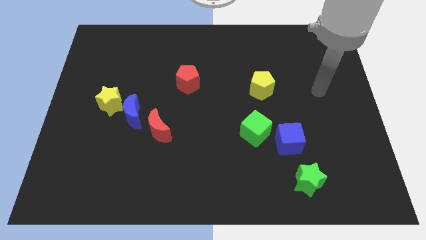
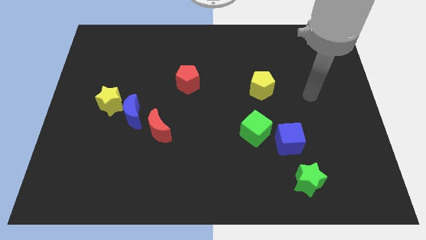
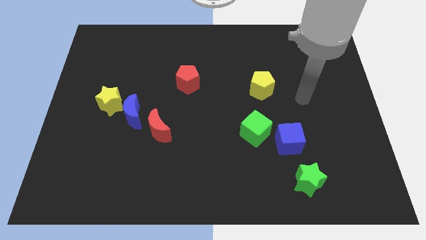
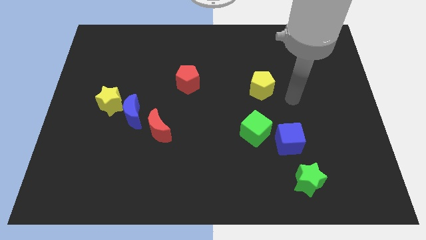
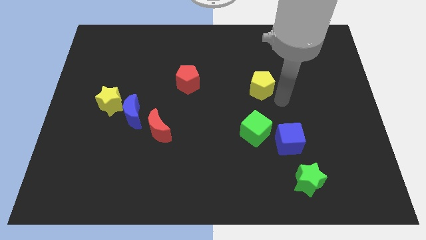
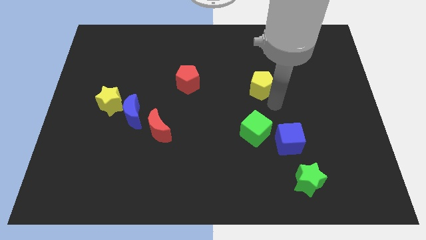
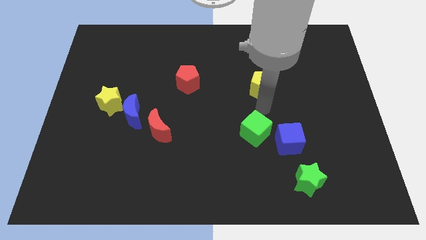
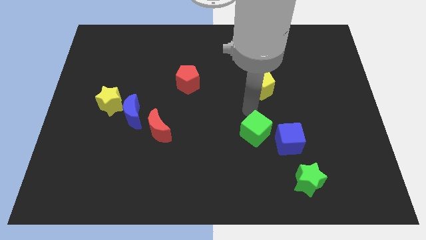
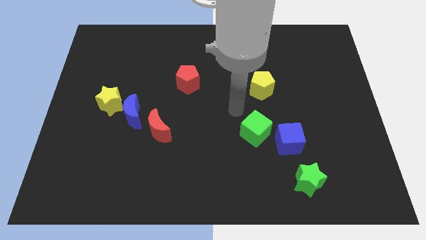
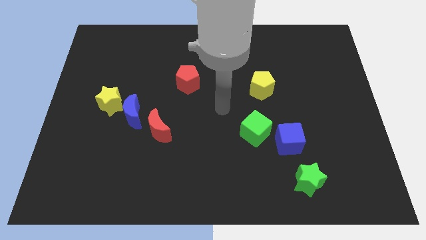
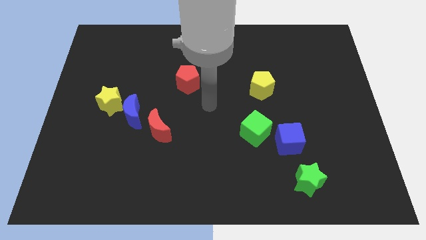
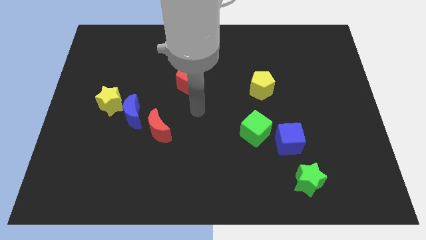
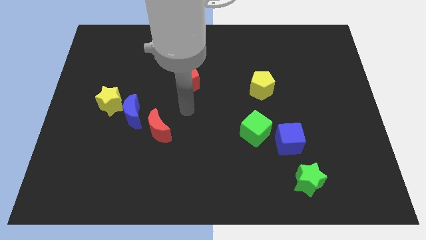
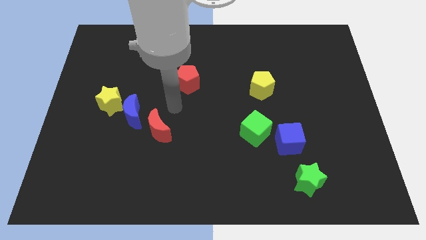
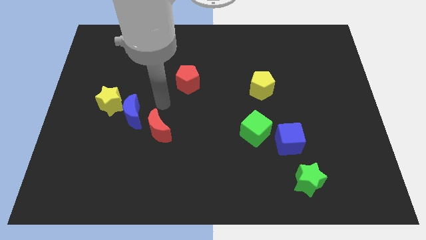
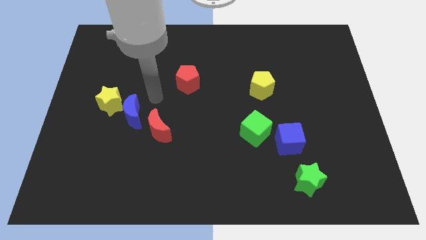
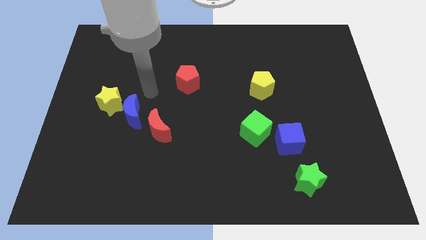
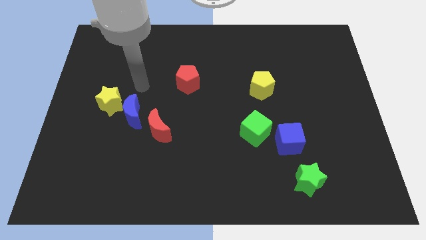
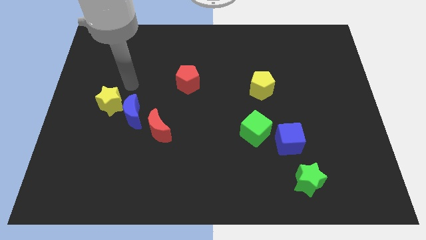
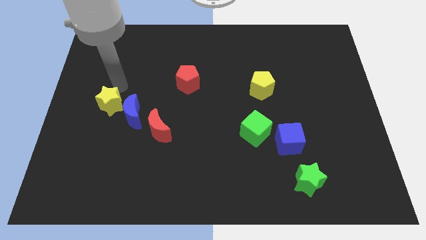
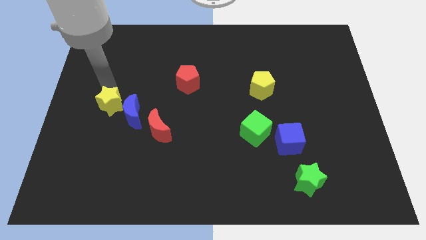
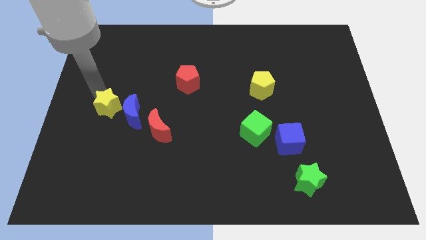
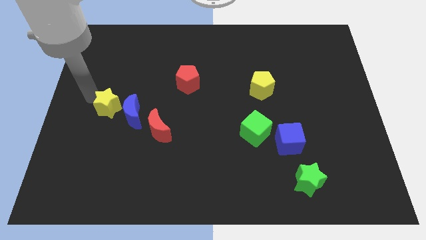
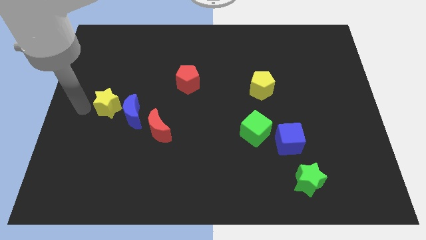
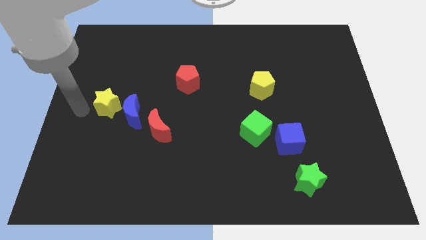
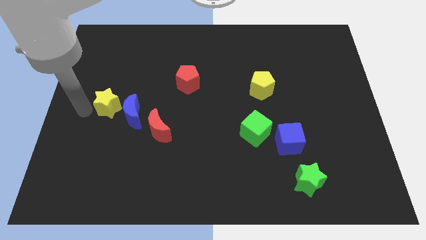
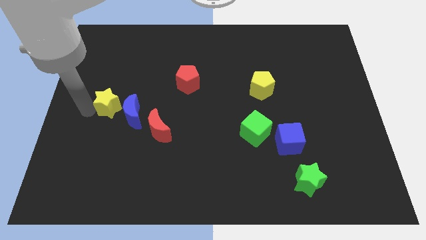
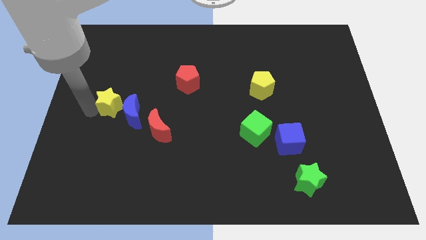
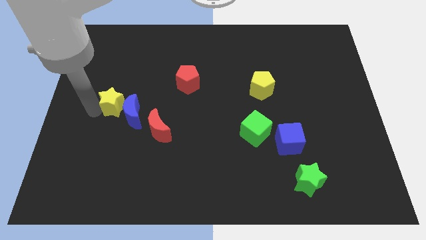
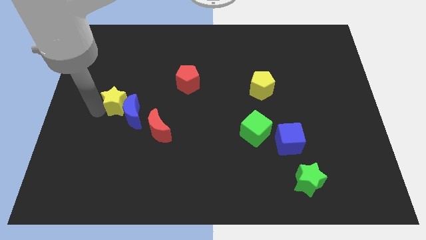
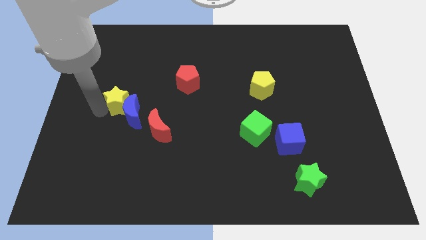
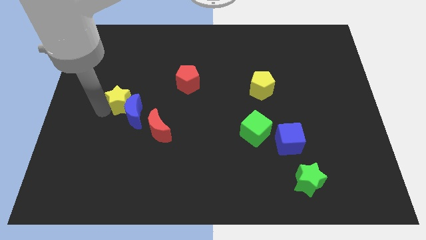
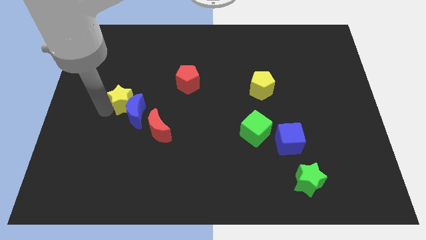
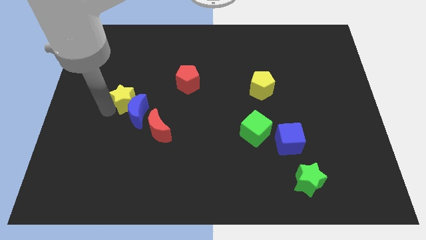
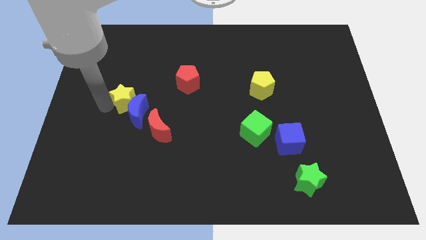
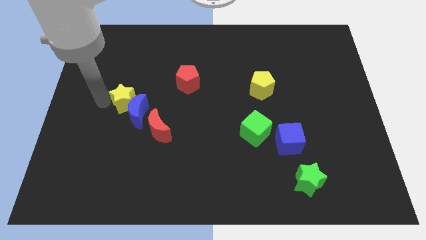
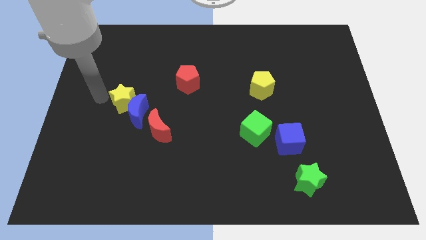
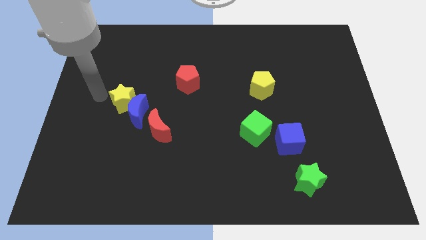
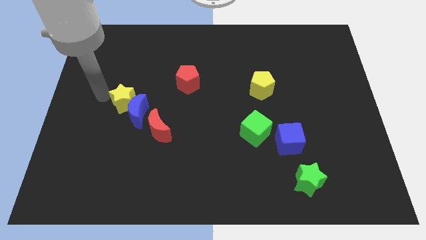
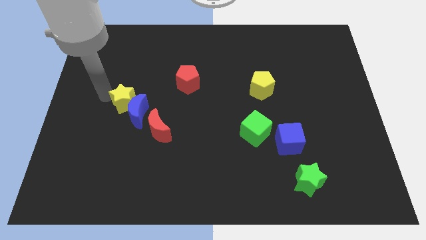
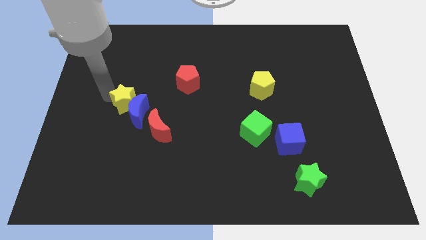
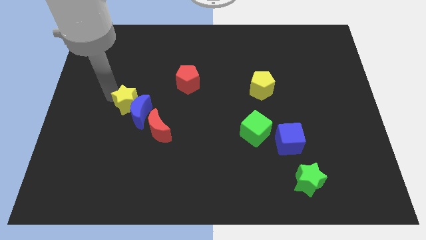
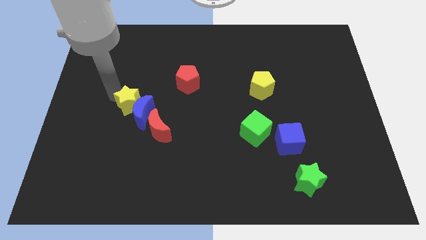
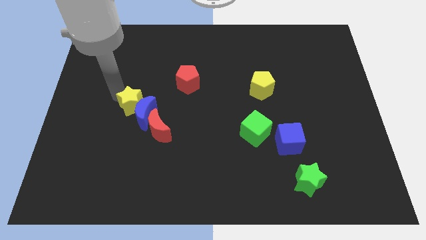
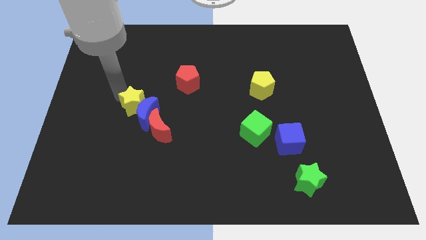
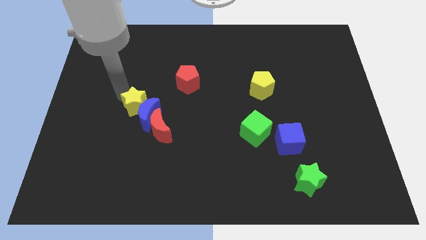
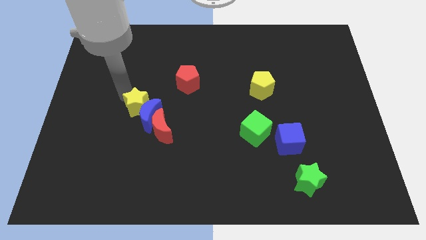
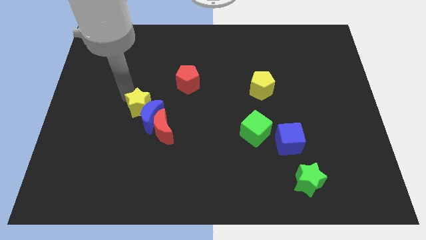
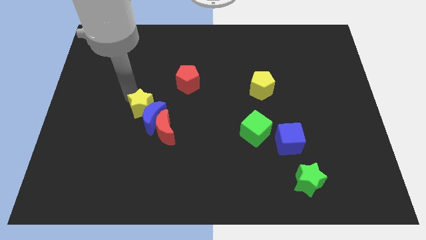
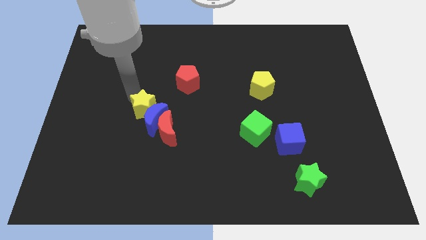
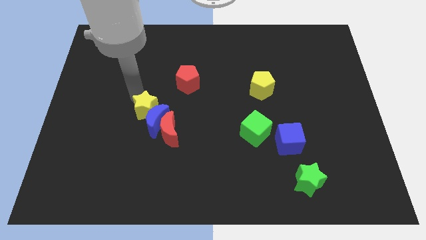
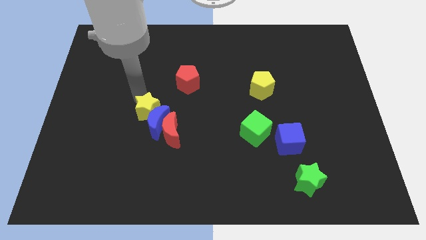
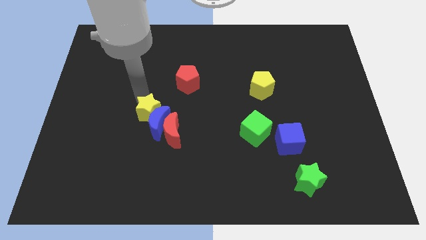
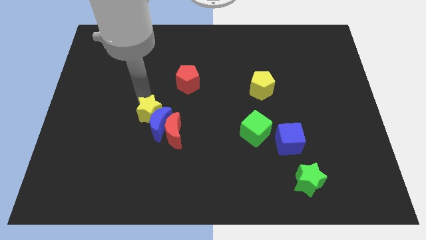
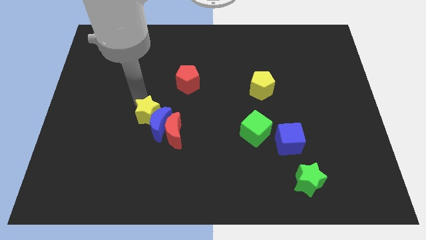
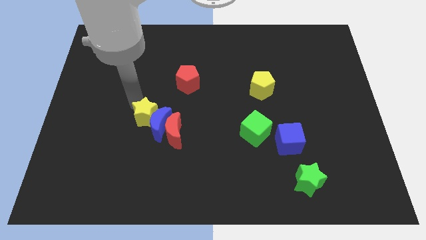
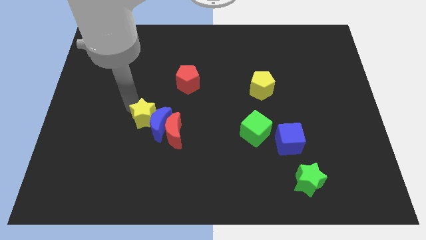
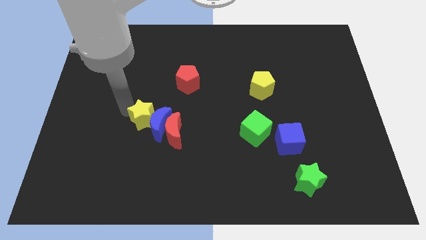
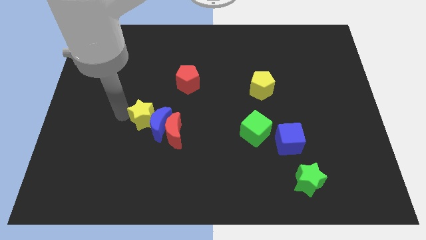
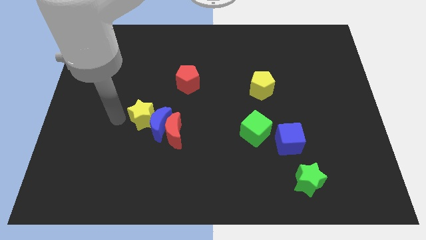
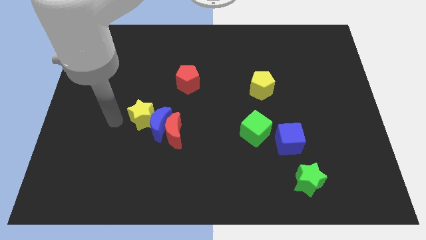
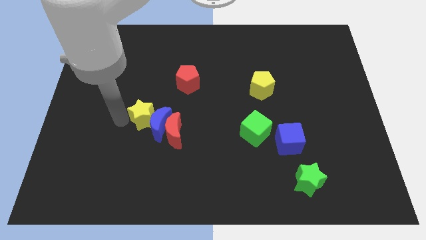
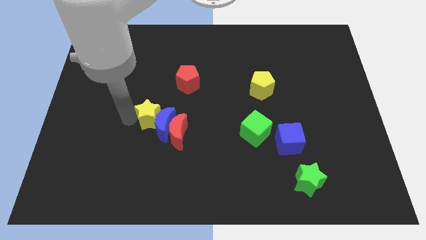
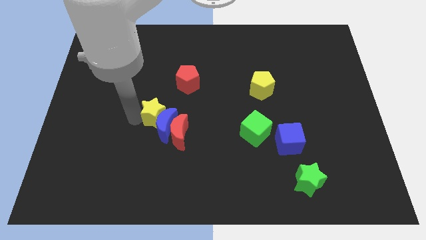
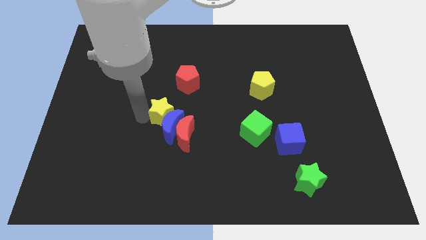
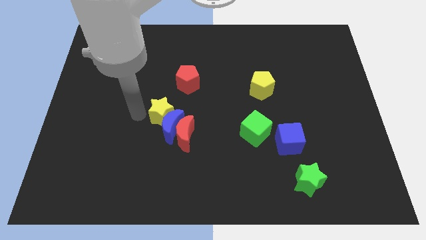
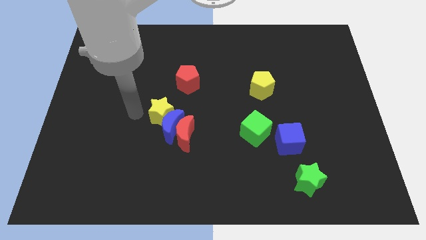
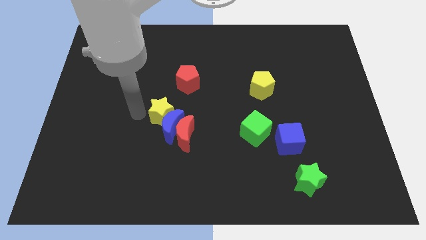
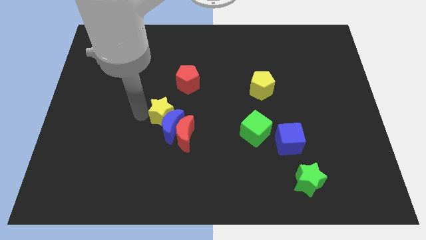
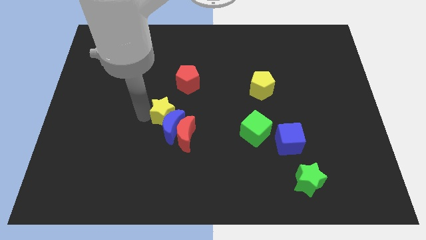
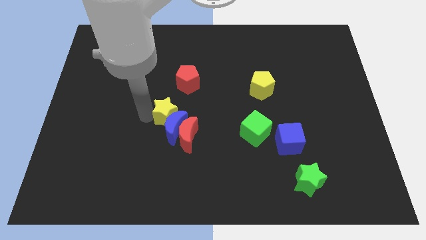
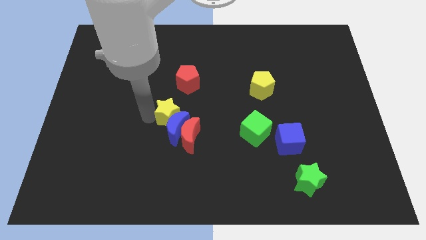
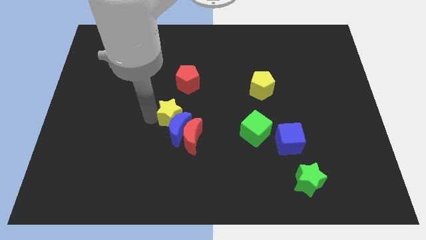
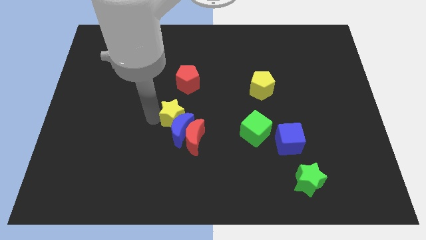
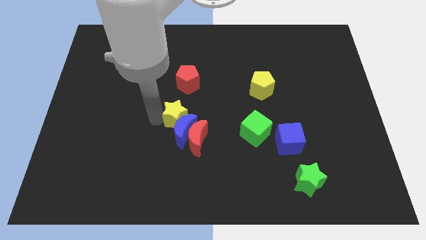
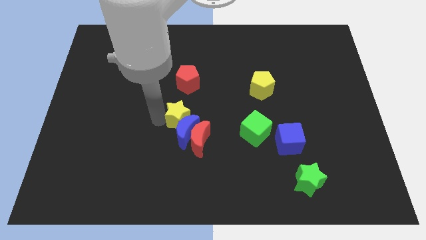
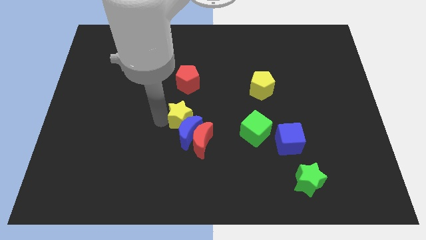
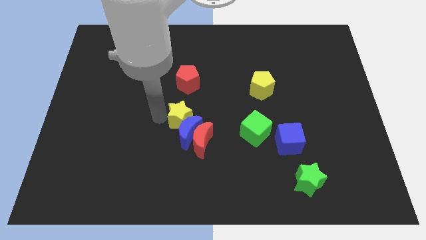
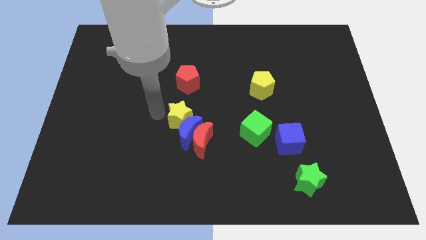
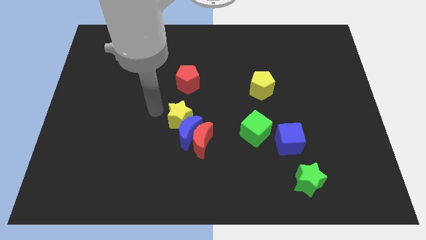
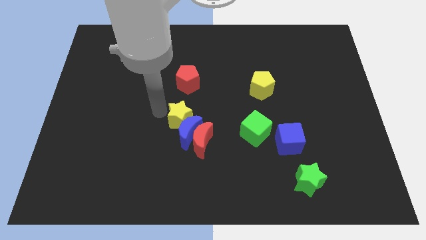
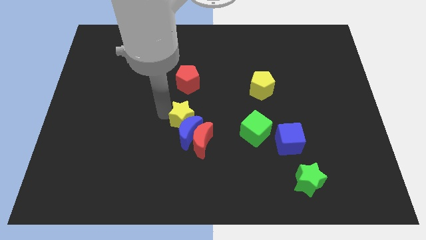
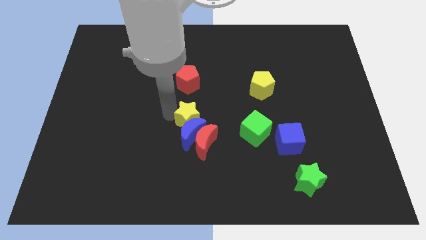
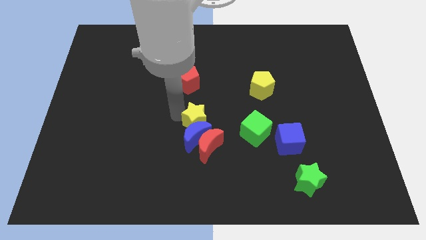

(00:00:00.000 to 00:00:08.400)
put the yellow star just left of the green cube
